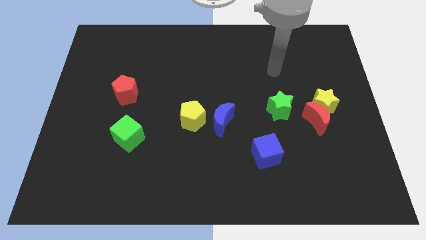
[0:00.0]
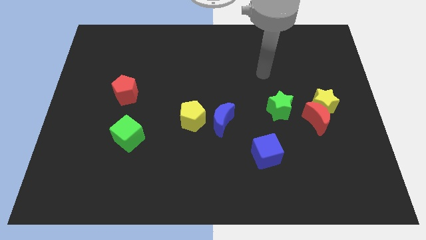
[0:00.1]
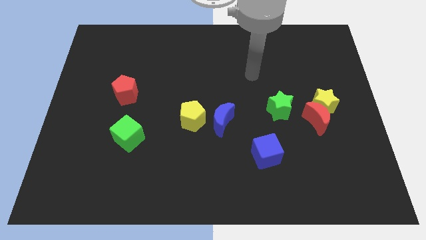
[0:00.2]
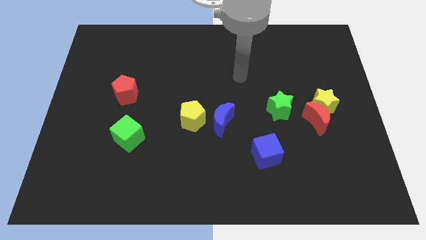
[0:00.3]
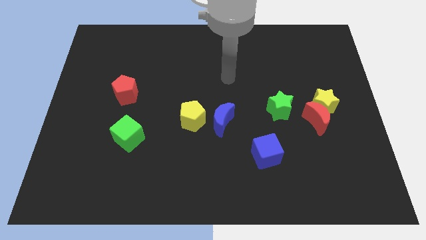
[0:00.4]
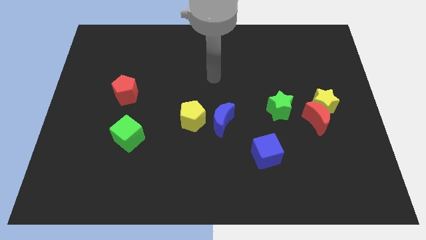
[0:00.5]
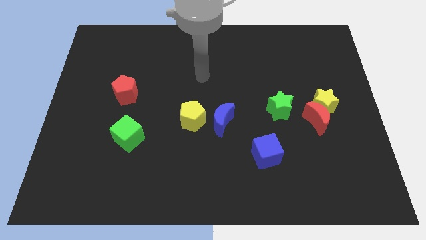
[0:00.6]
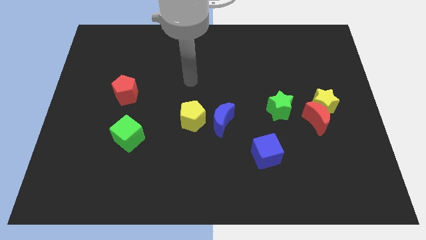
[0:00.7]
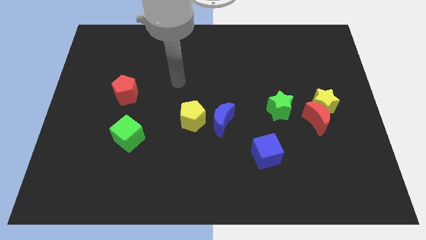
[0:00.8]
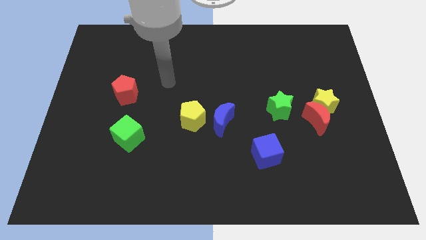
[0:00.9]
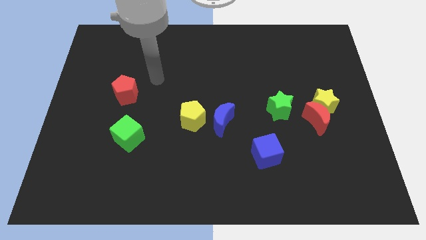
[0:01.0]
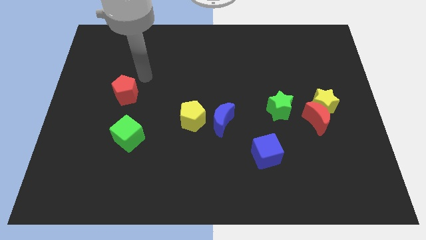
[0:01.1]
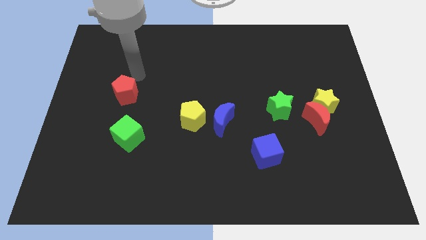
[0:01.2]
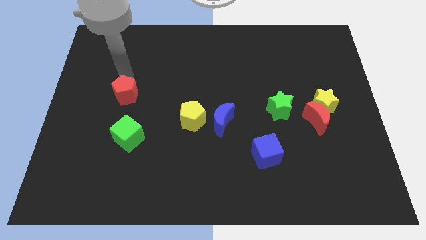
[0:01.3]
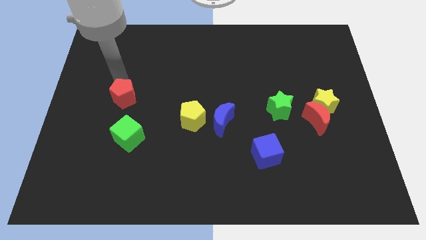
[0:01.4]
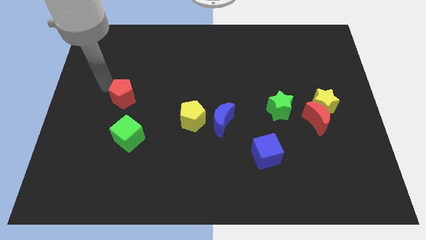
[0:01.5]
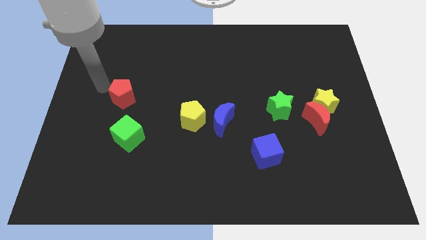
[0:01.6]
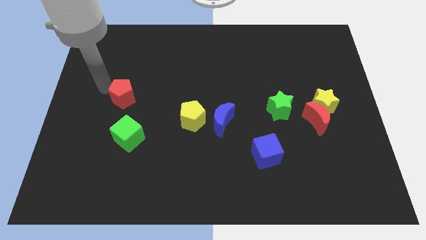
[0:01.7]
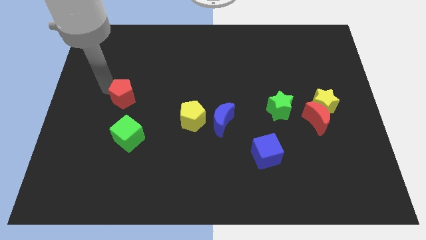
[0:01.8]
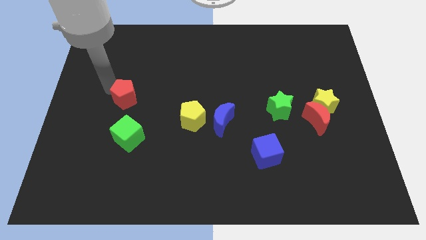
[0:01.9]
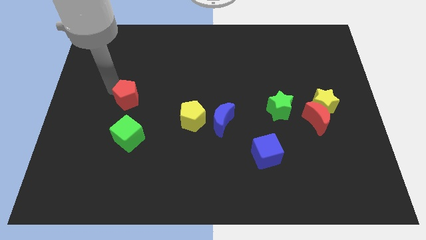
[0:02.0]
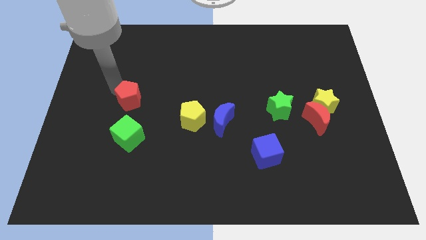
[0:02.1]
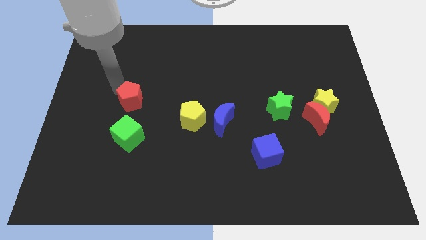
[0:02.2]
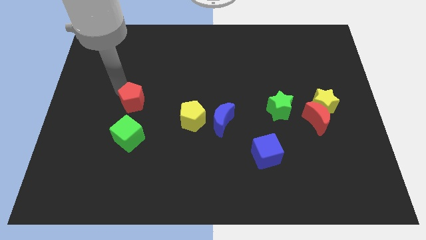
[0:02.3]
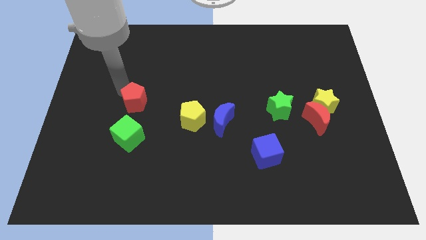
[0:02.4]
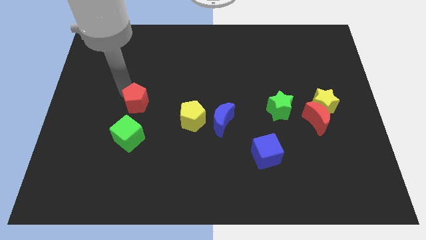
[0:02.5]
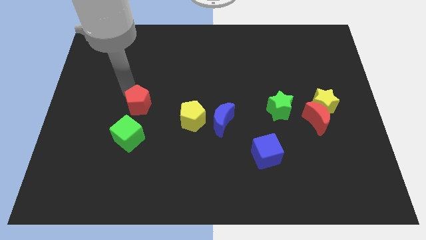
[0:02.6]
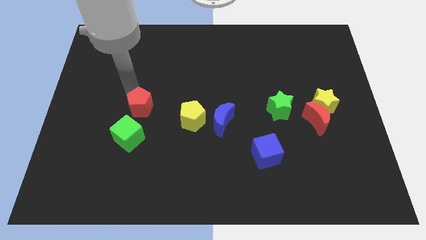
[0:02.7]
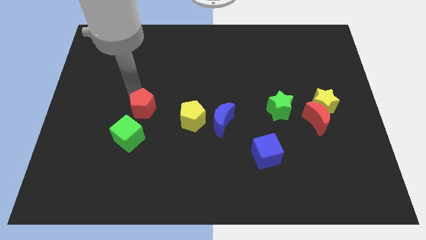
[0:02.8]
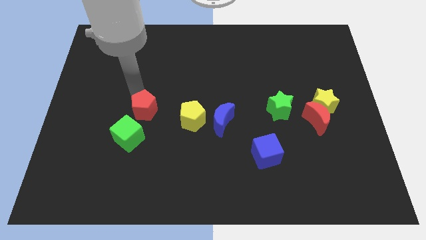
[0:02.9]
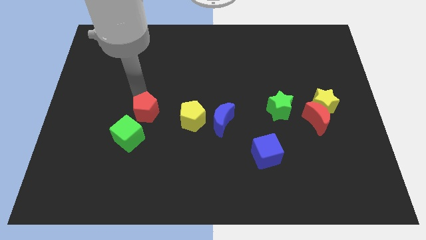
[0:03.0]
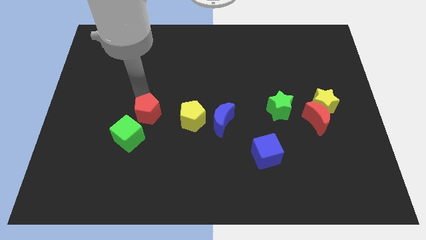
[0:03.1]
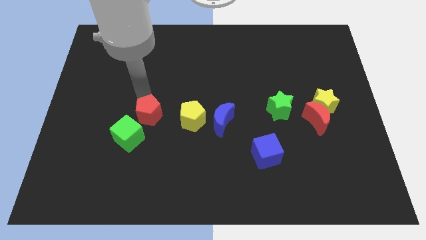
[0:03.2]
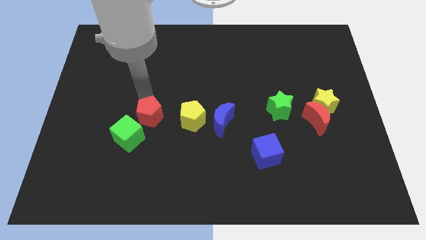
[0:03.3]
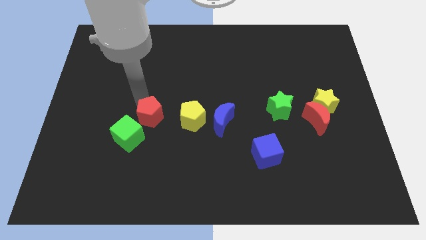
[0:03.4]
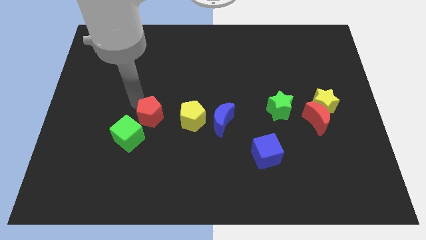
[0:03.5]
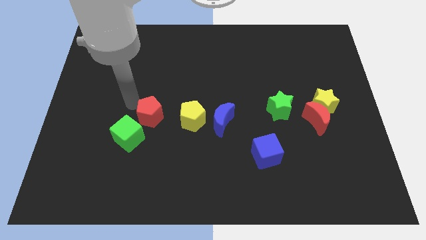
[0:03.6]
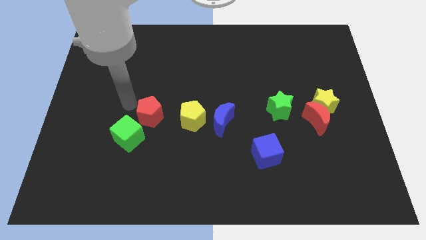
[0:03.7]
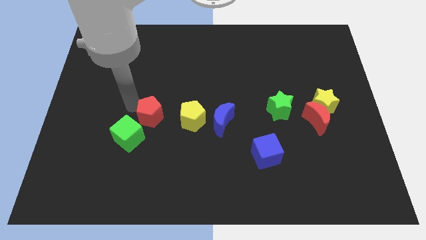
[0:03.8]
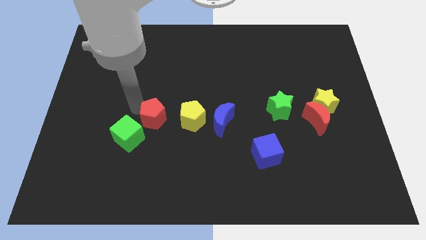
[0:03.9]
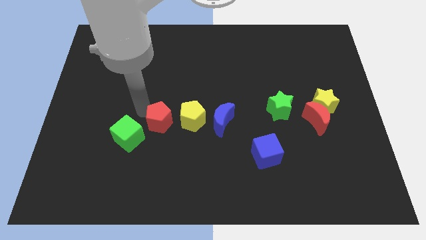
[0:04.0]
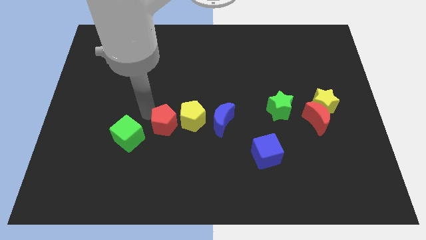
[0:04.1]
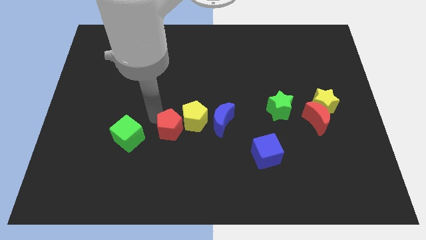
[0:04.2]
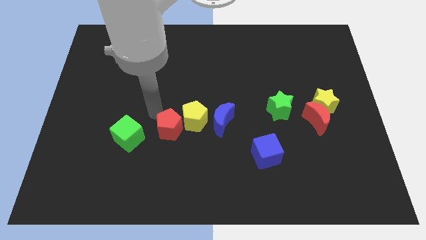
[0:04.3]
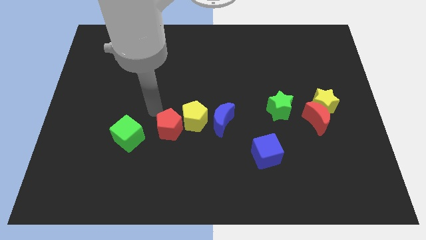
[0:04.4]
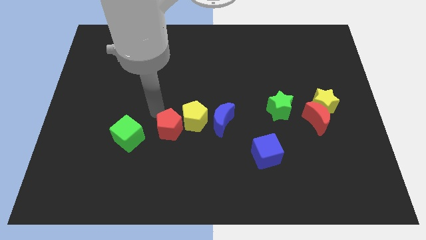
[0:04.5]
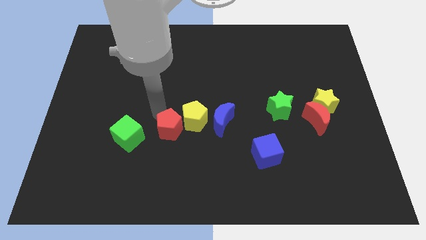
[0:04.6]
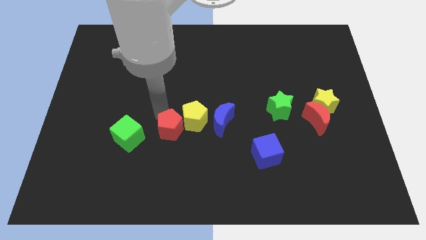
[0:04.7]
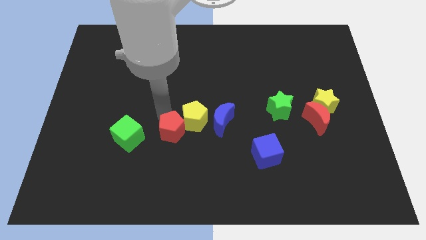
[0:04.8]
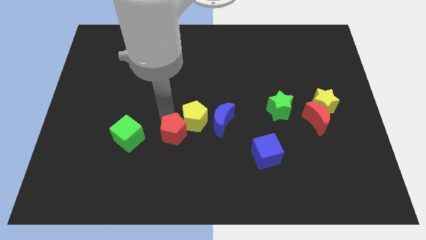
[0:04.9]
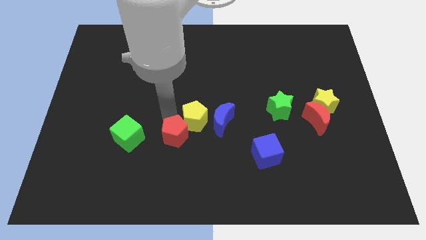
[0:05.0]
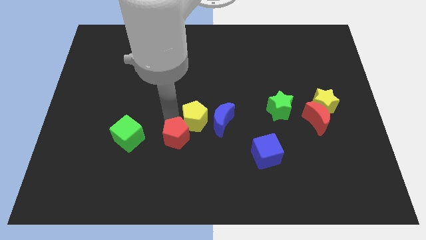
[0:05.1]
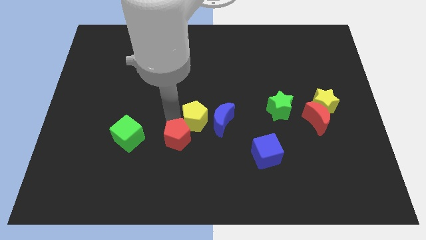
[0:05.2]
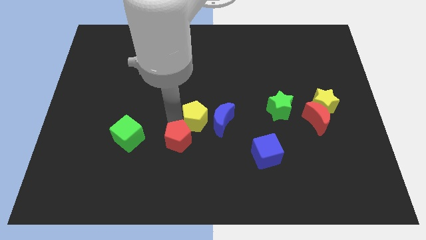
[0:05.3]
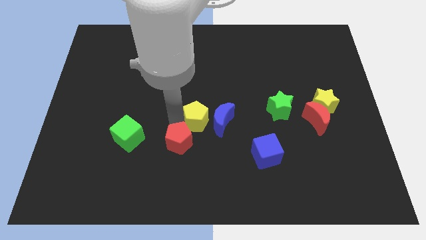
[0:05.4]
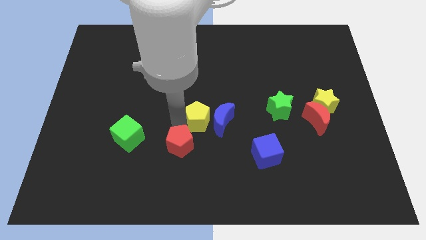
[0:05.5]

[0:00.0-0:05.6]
slide the red pentagon down and right diagonally

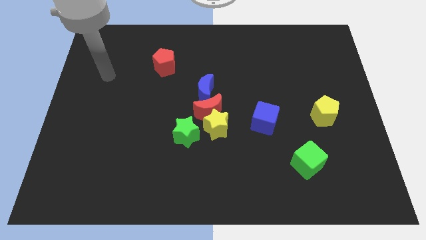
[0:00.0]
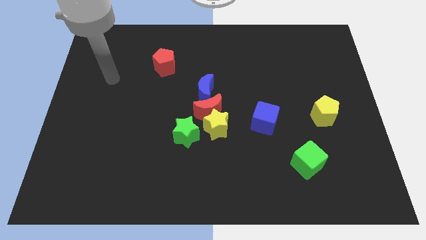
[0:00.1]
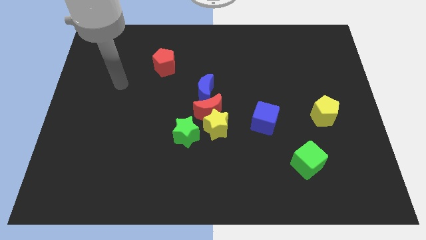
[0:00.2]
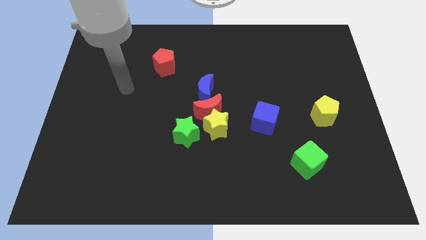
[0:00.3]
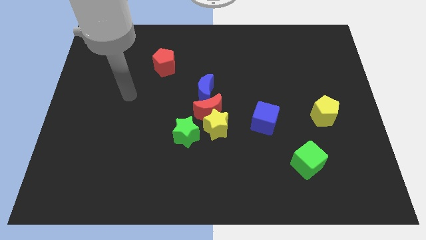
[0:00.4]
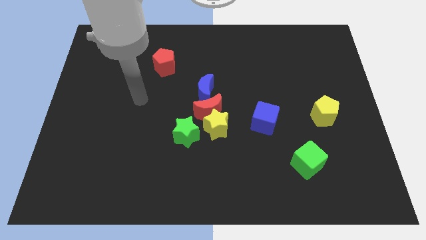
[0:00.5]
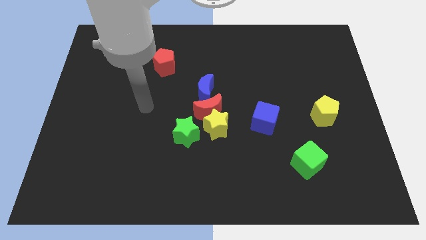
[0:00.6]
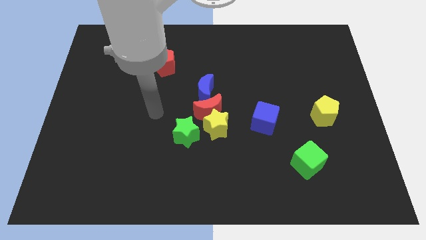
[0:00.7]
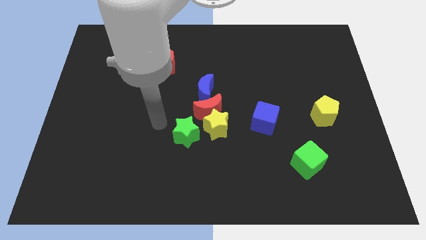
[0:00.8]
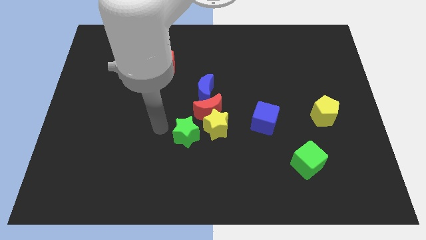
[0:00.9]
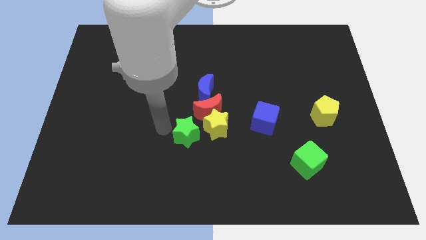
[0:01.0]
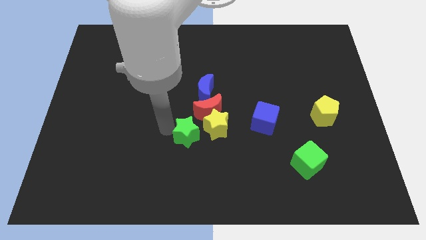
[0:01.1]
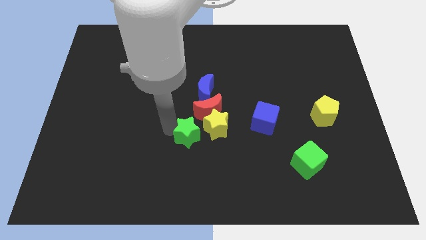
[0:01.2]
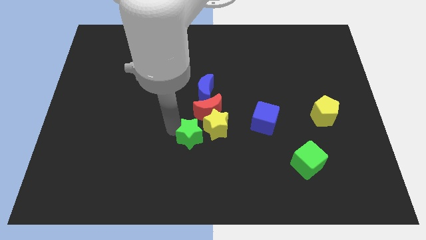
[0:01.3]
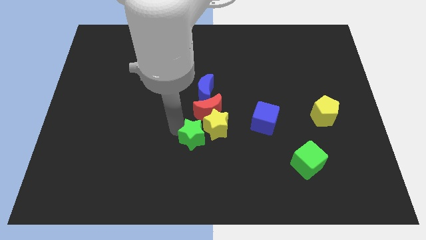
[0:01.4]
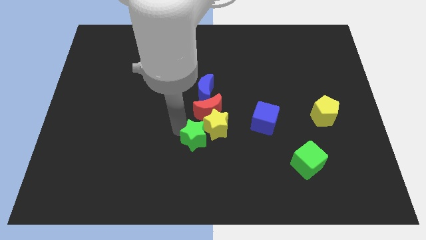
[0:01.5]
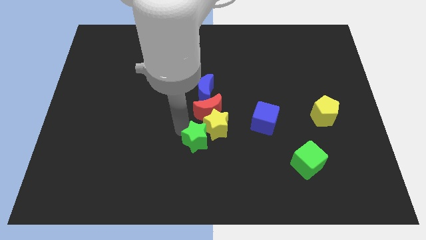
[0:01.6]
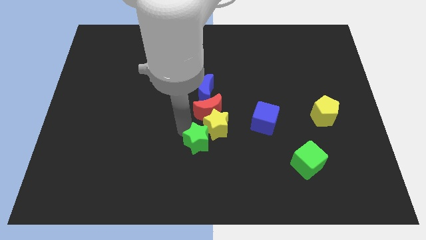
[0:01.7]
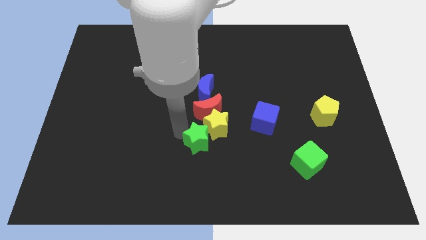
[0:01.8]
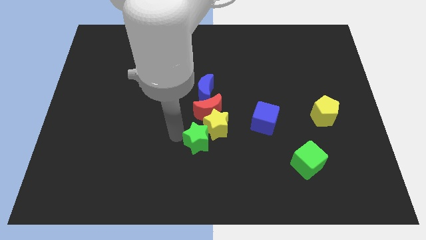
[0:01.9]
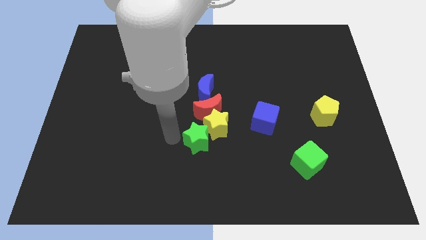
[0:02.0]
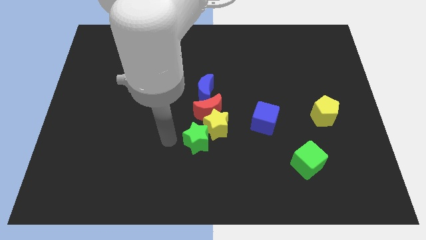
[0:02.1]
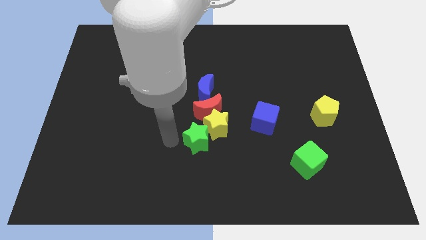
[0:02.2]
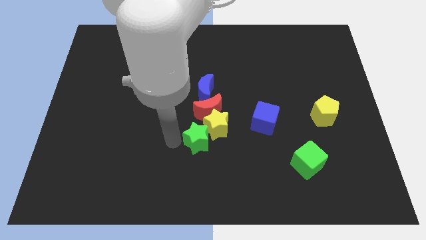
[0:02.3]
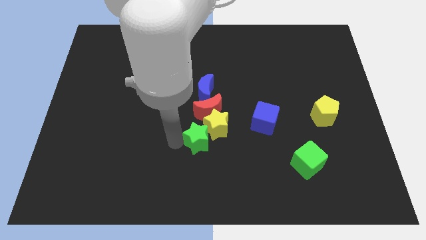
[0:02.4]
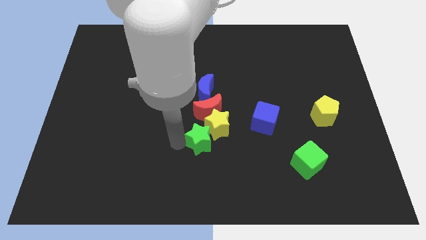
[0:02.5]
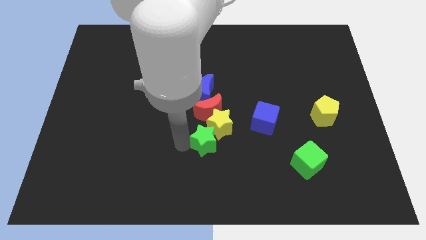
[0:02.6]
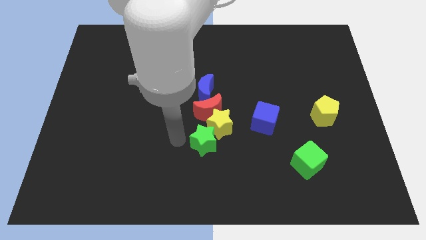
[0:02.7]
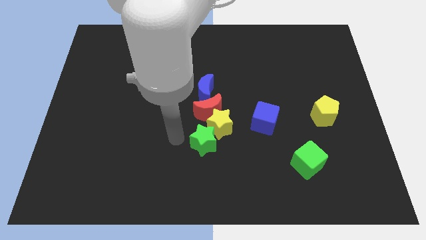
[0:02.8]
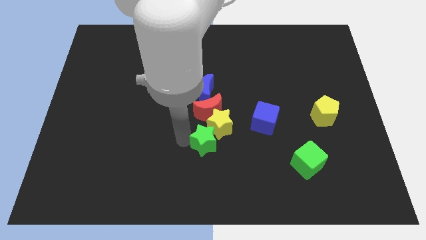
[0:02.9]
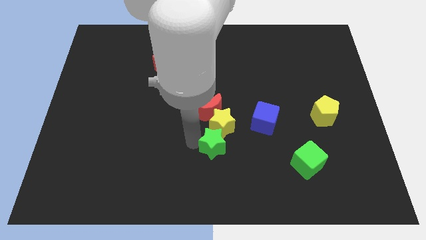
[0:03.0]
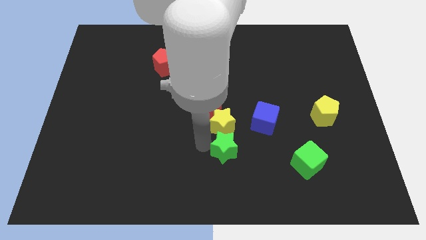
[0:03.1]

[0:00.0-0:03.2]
slightly move the green star to the right
